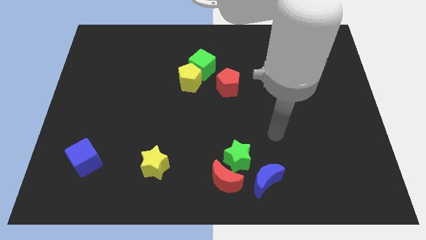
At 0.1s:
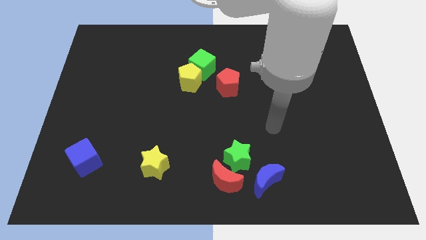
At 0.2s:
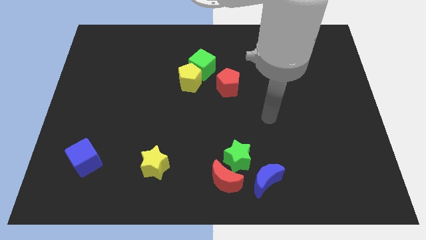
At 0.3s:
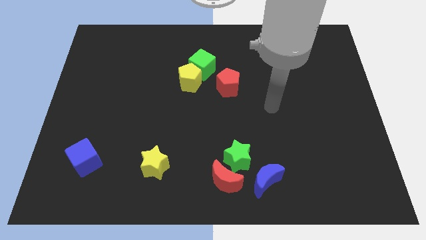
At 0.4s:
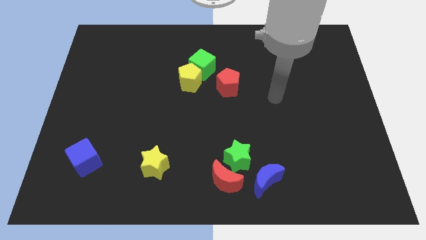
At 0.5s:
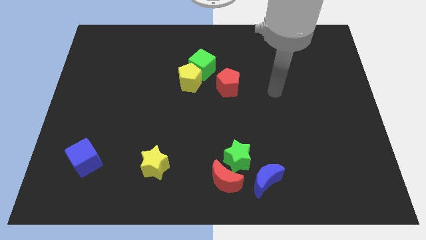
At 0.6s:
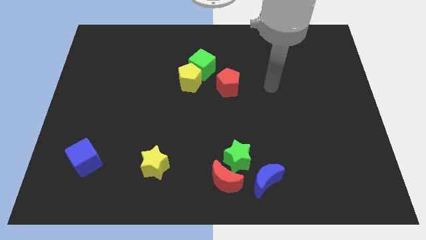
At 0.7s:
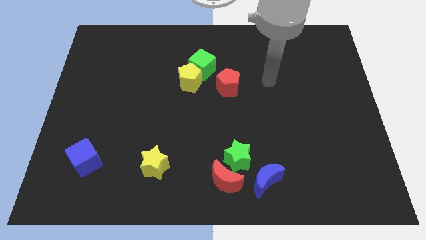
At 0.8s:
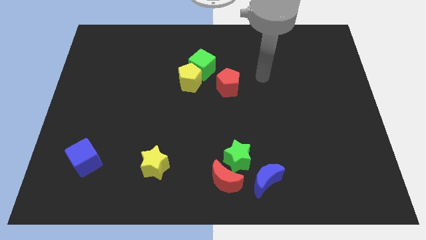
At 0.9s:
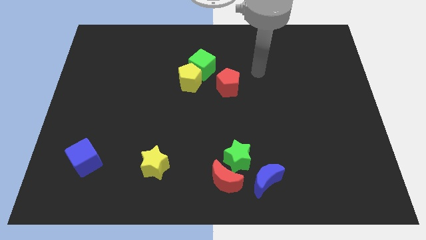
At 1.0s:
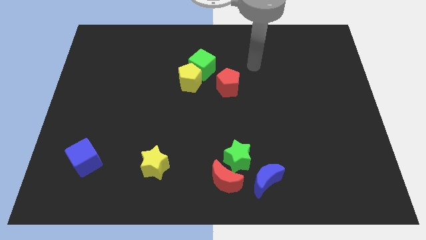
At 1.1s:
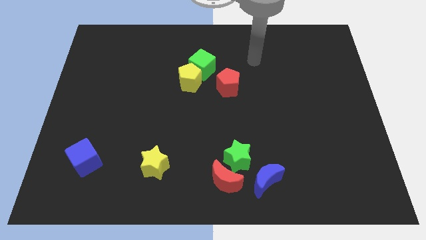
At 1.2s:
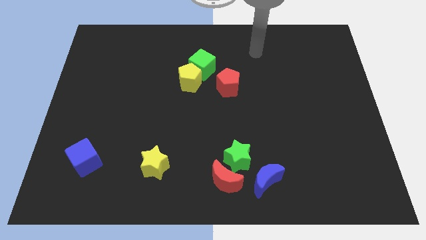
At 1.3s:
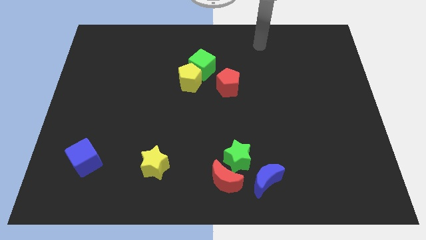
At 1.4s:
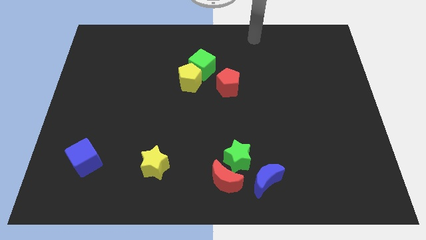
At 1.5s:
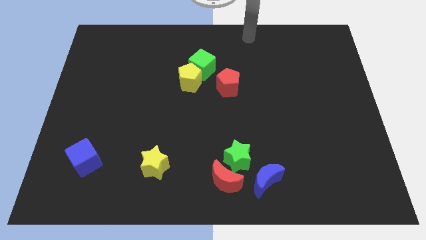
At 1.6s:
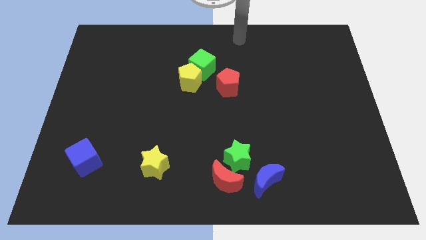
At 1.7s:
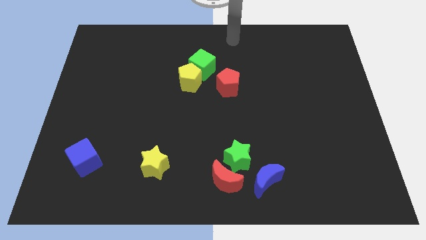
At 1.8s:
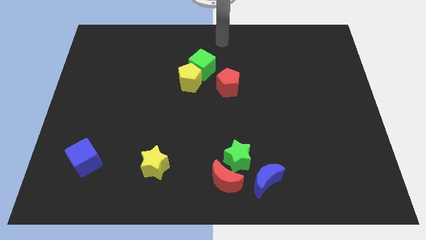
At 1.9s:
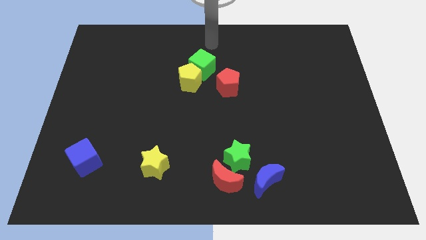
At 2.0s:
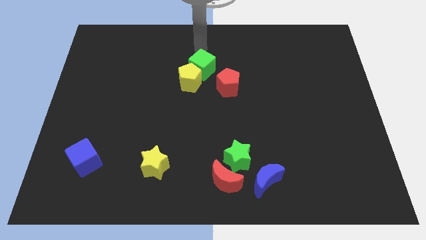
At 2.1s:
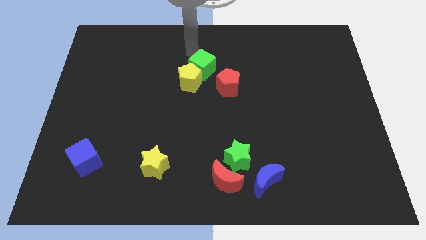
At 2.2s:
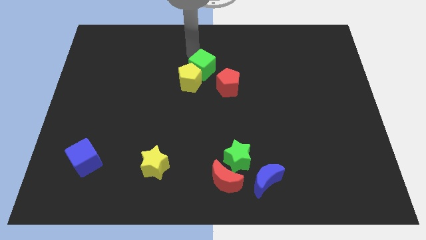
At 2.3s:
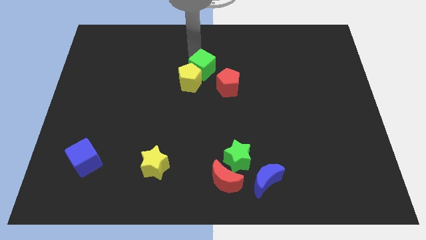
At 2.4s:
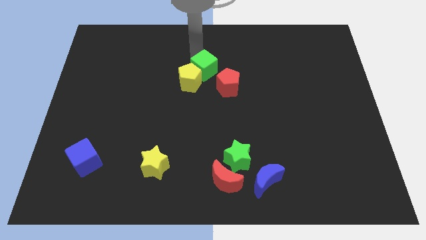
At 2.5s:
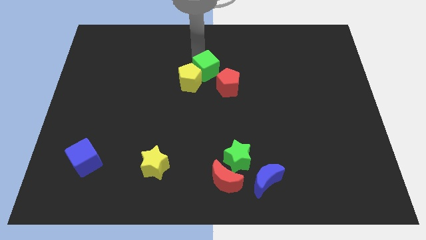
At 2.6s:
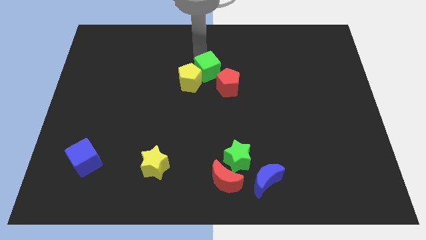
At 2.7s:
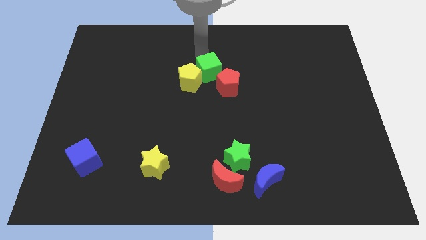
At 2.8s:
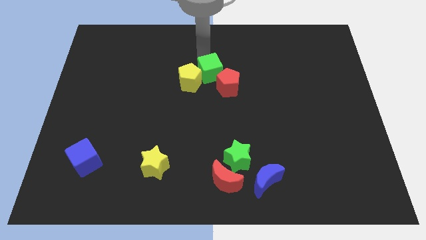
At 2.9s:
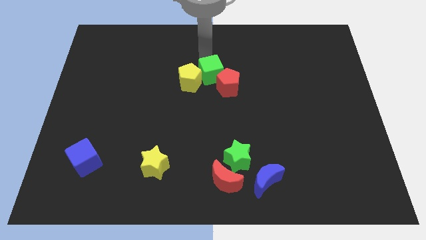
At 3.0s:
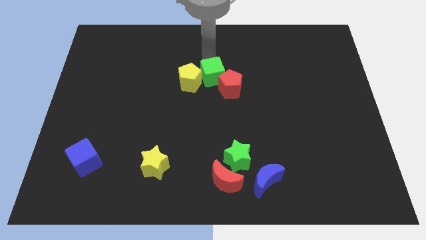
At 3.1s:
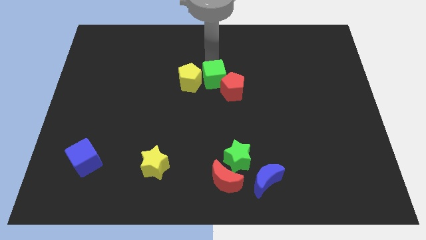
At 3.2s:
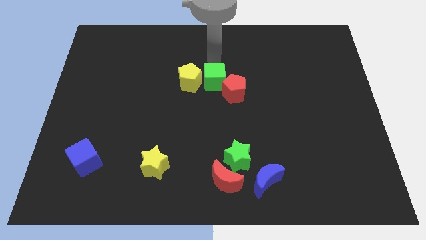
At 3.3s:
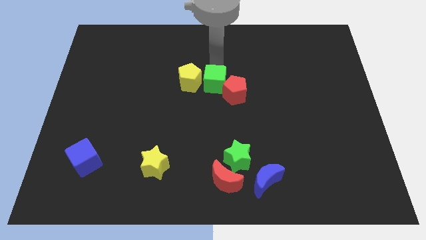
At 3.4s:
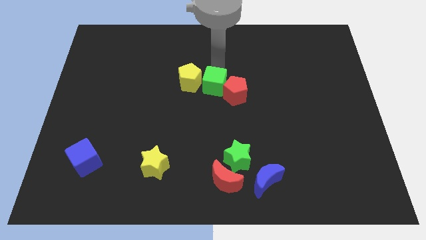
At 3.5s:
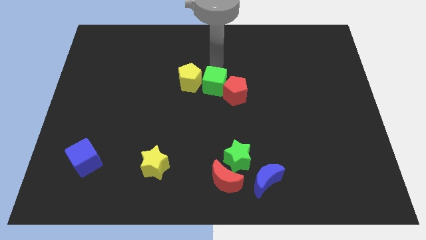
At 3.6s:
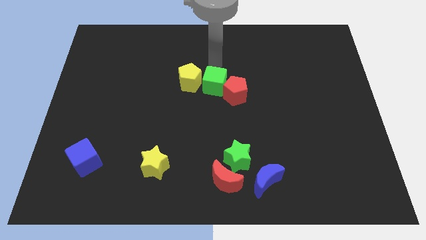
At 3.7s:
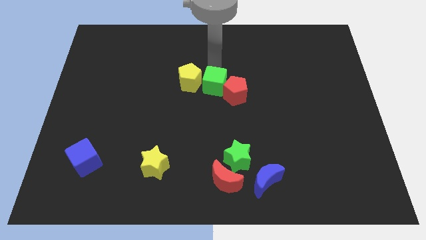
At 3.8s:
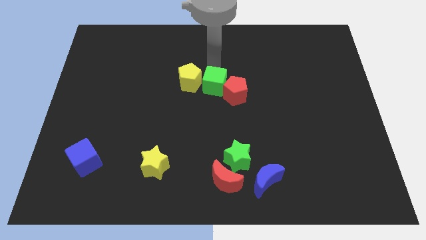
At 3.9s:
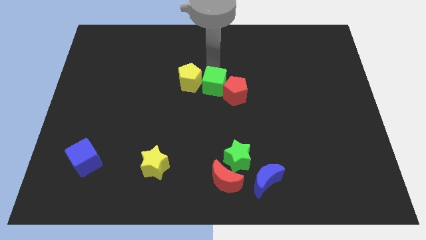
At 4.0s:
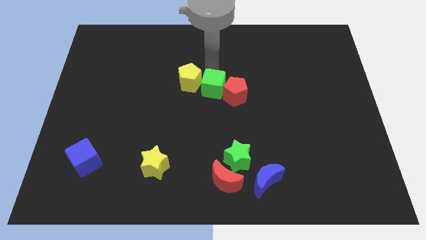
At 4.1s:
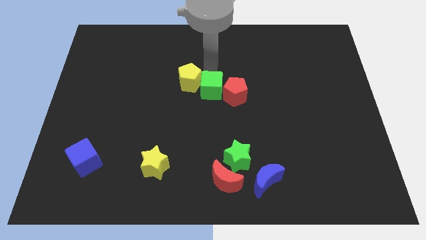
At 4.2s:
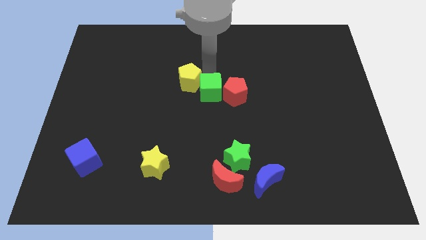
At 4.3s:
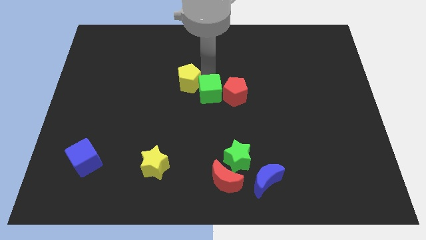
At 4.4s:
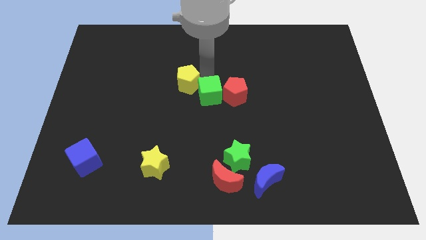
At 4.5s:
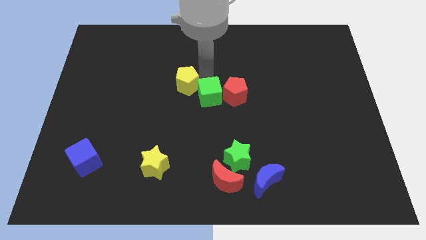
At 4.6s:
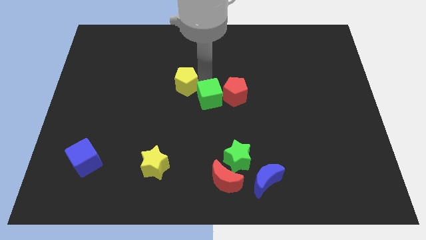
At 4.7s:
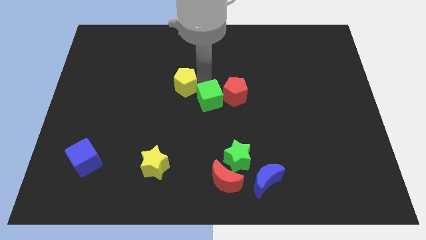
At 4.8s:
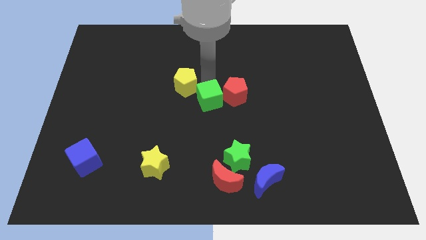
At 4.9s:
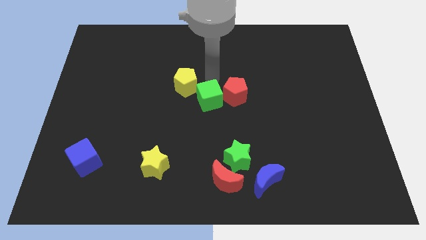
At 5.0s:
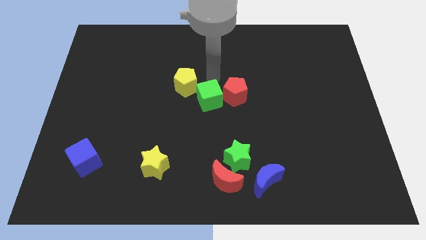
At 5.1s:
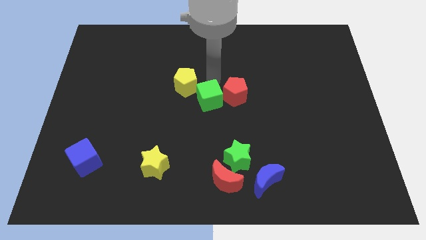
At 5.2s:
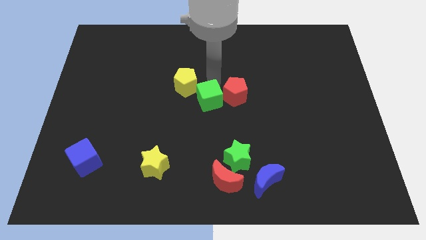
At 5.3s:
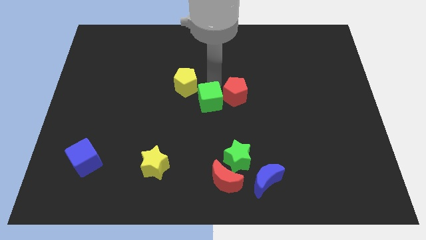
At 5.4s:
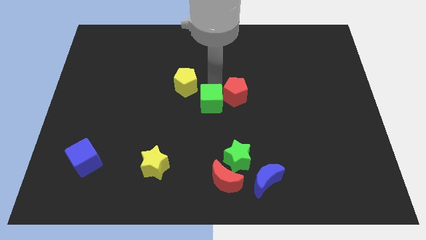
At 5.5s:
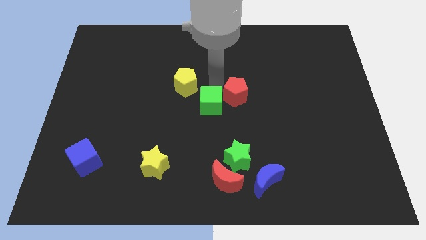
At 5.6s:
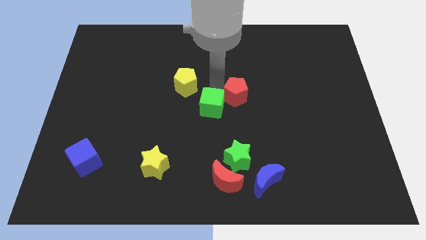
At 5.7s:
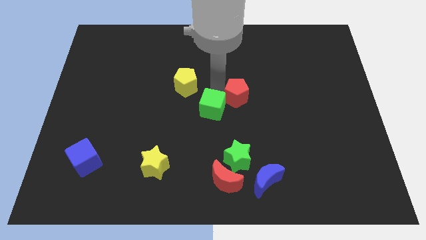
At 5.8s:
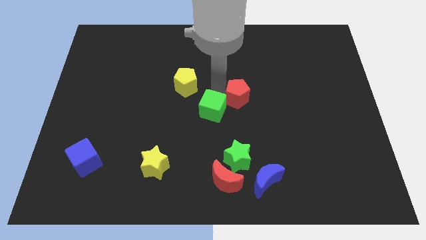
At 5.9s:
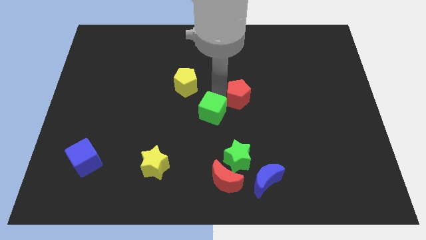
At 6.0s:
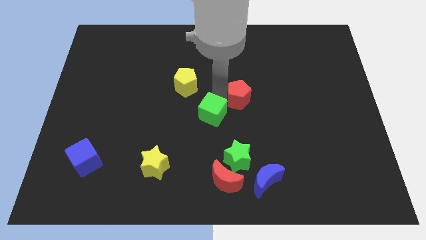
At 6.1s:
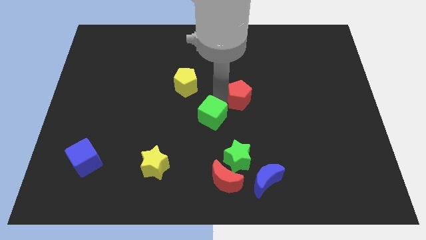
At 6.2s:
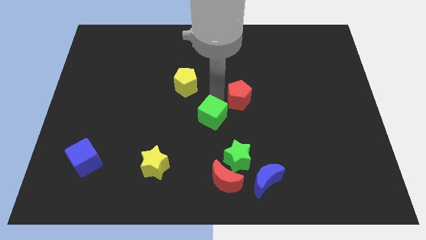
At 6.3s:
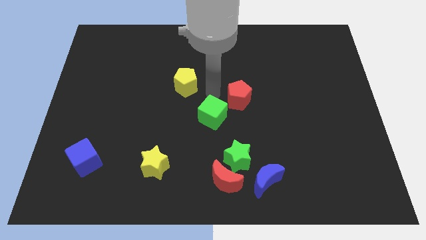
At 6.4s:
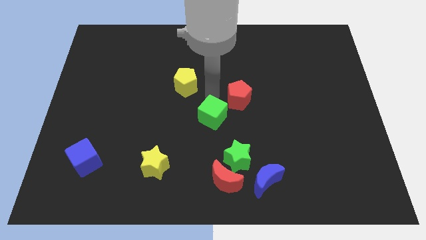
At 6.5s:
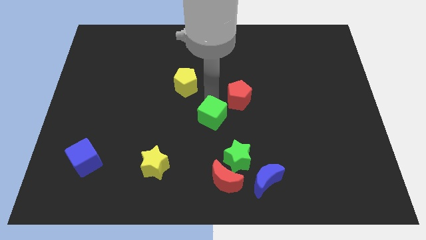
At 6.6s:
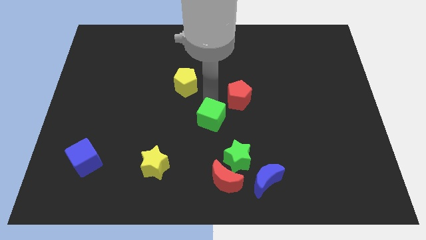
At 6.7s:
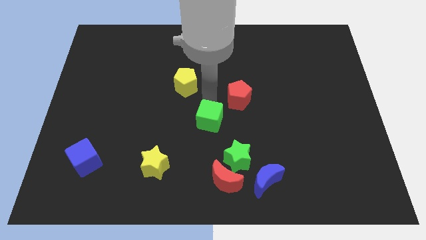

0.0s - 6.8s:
put the green cube diagonally up and to the left of the green star
